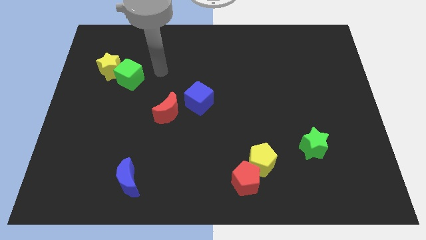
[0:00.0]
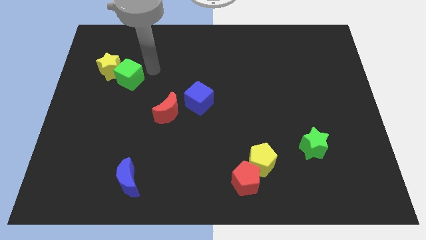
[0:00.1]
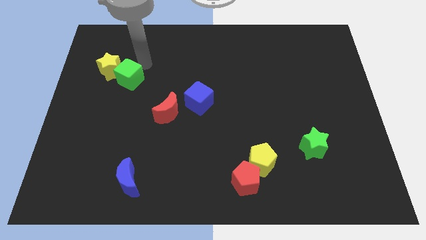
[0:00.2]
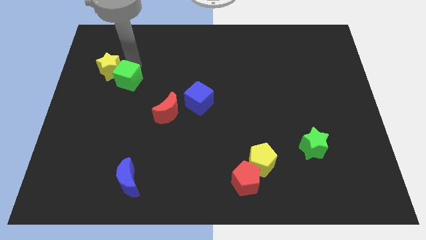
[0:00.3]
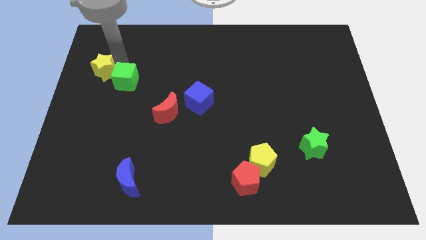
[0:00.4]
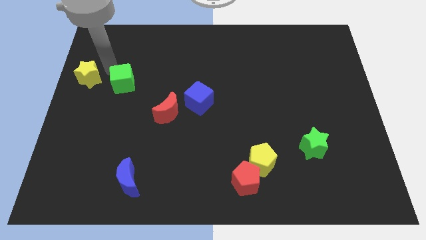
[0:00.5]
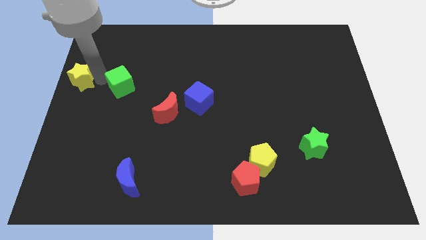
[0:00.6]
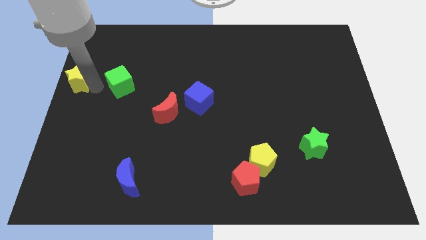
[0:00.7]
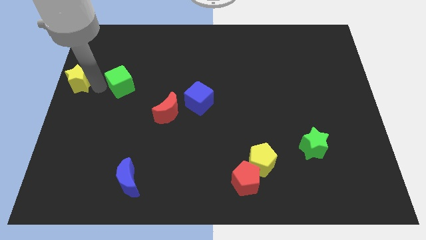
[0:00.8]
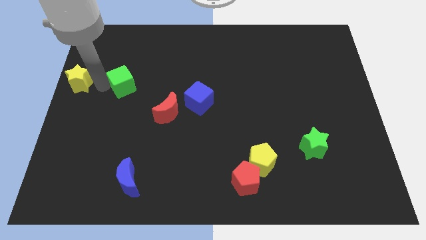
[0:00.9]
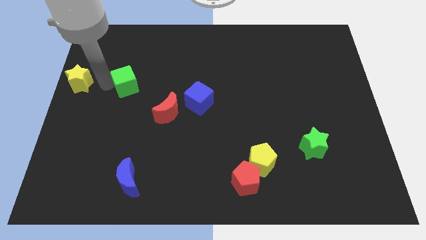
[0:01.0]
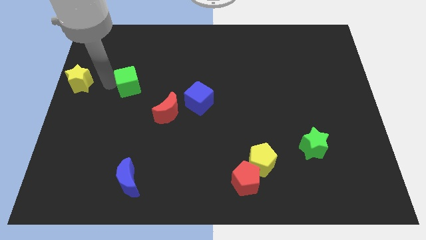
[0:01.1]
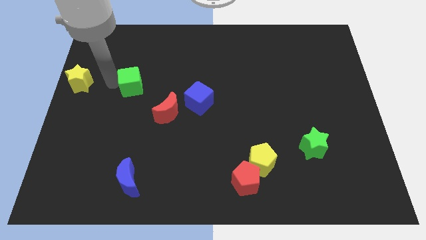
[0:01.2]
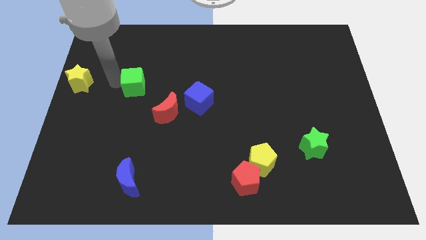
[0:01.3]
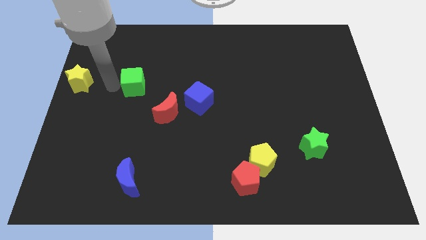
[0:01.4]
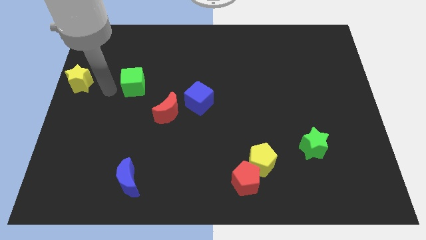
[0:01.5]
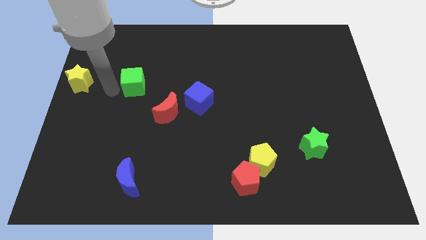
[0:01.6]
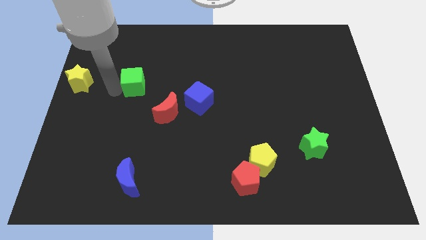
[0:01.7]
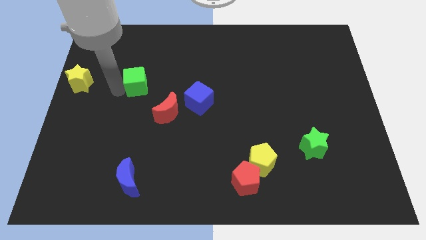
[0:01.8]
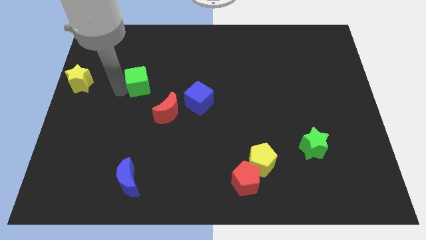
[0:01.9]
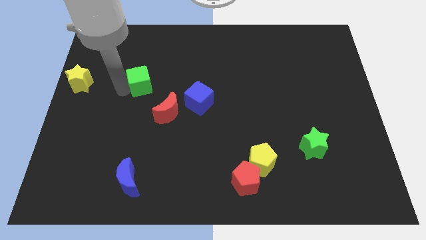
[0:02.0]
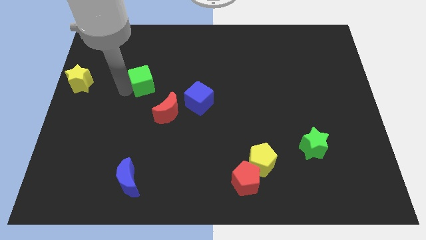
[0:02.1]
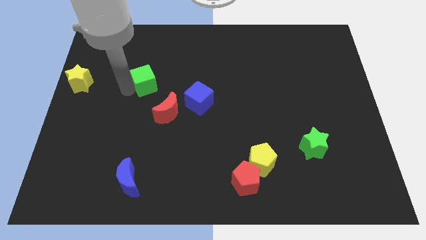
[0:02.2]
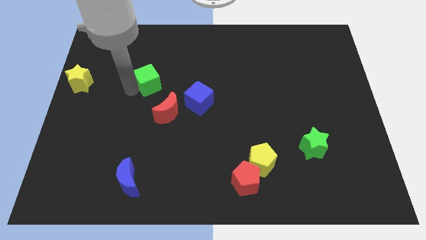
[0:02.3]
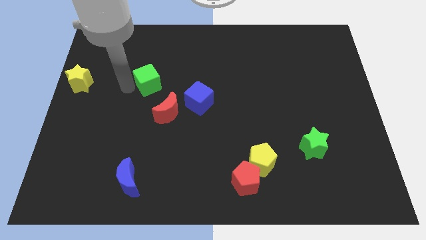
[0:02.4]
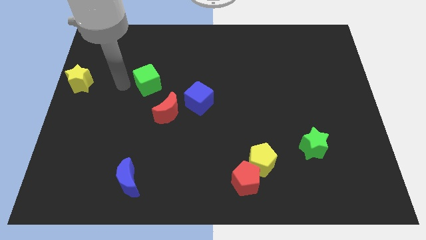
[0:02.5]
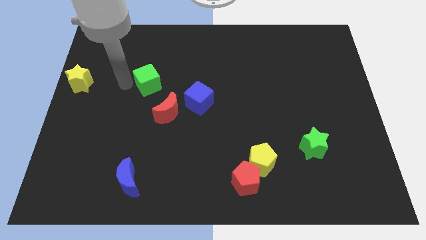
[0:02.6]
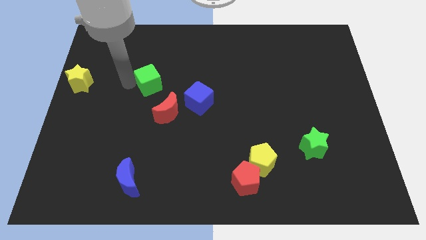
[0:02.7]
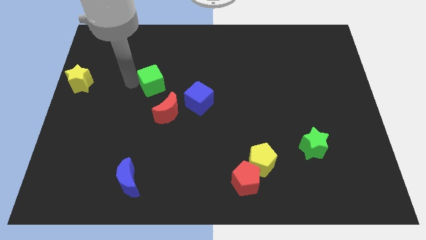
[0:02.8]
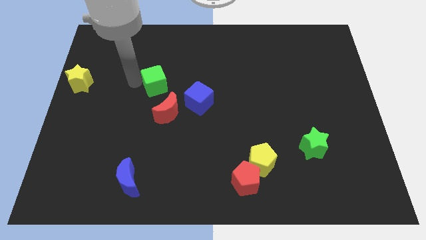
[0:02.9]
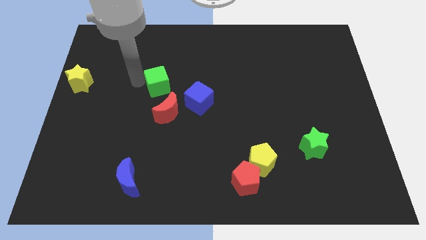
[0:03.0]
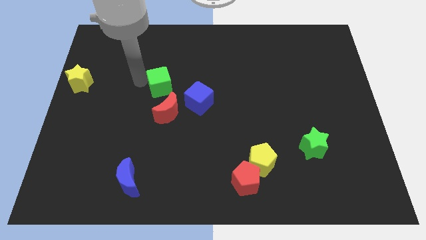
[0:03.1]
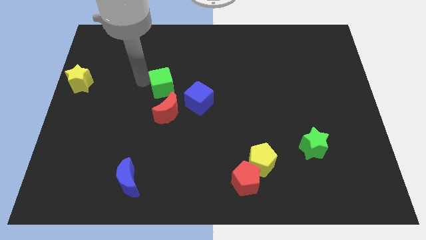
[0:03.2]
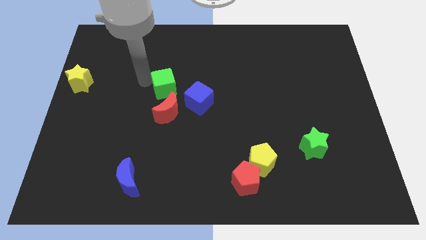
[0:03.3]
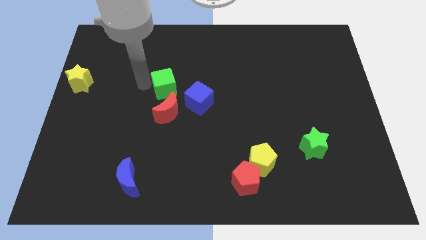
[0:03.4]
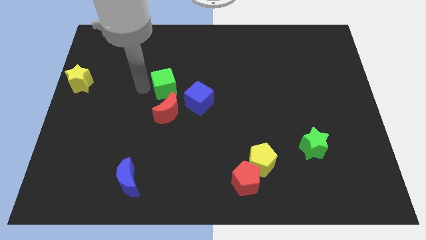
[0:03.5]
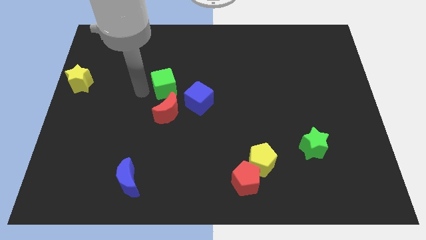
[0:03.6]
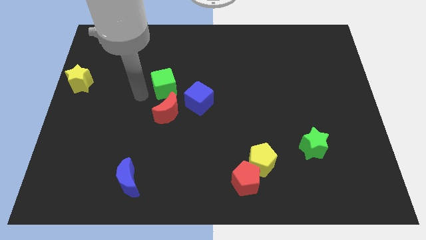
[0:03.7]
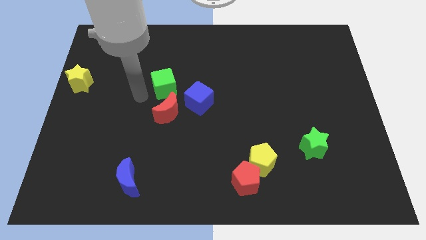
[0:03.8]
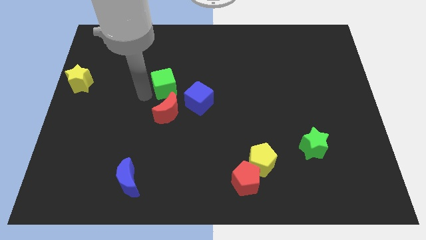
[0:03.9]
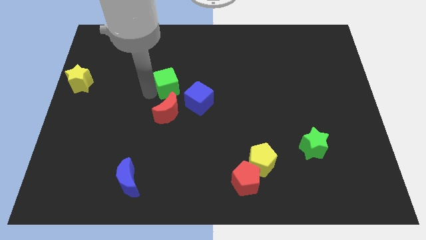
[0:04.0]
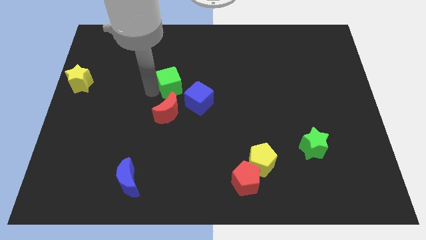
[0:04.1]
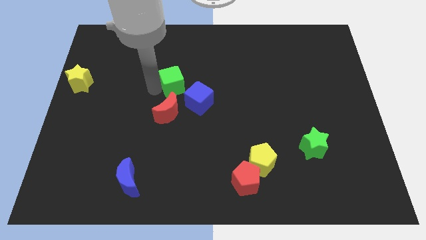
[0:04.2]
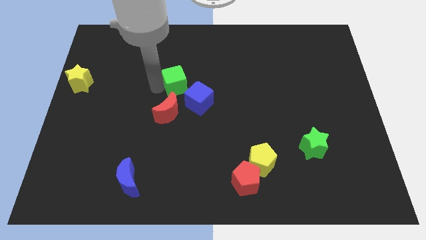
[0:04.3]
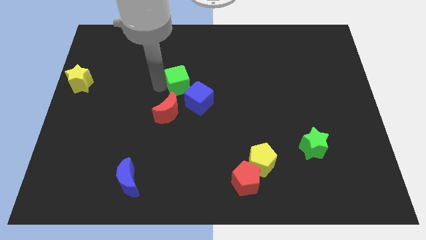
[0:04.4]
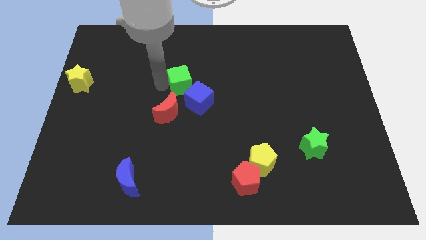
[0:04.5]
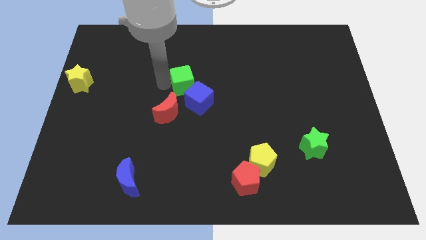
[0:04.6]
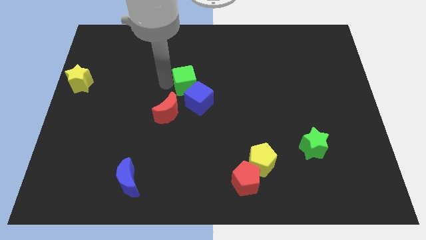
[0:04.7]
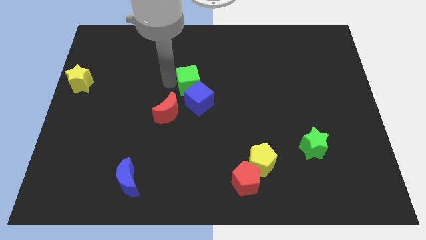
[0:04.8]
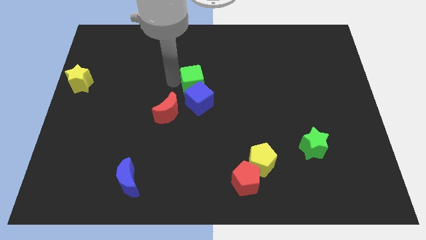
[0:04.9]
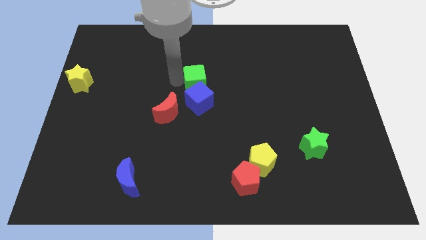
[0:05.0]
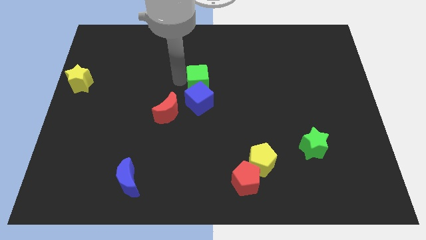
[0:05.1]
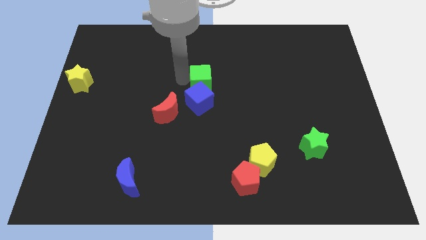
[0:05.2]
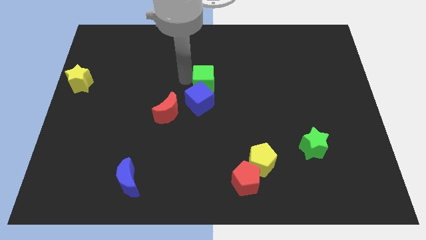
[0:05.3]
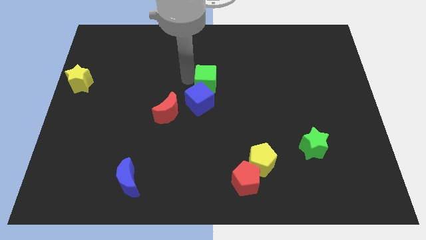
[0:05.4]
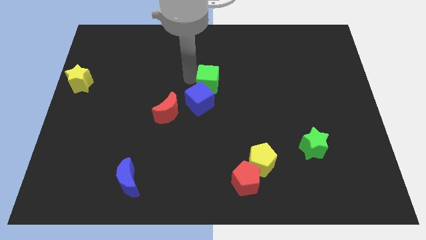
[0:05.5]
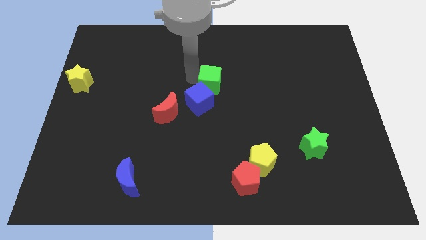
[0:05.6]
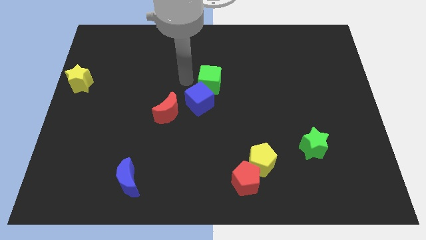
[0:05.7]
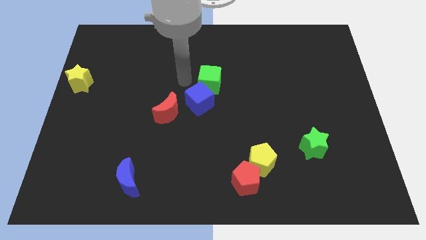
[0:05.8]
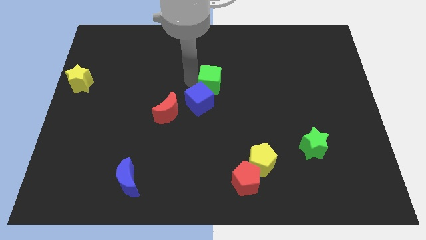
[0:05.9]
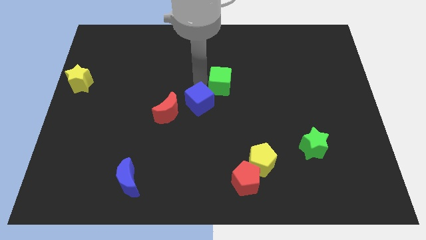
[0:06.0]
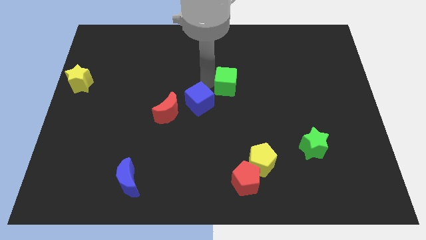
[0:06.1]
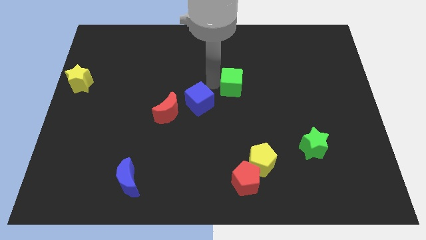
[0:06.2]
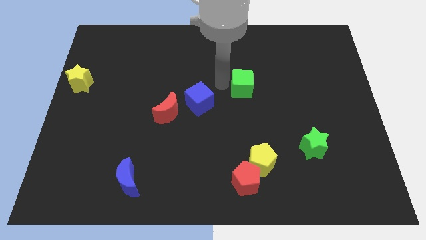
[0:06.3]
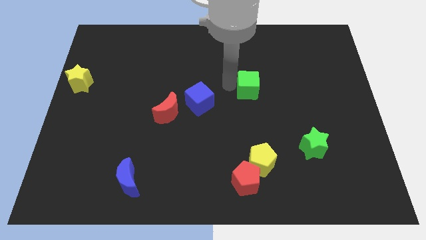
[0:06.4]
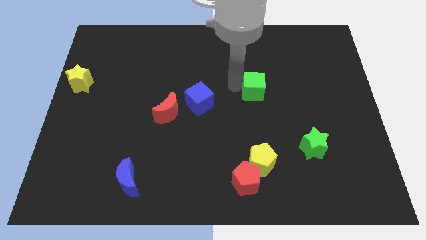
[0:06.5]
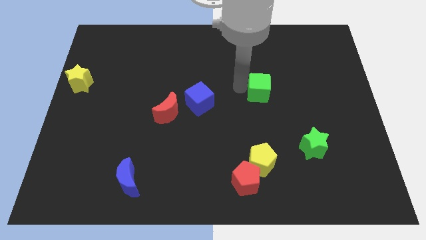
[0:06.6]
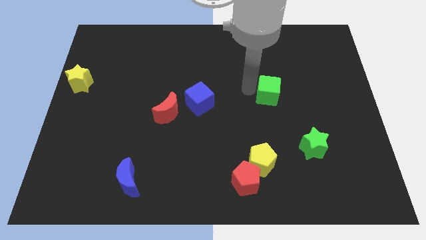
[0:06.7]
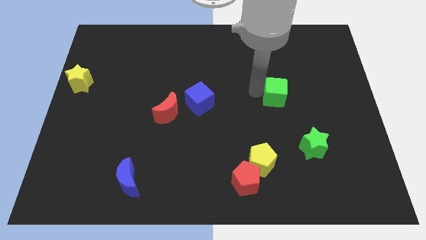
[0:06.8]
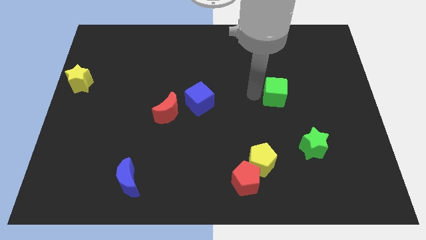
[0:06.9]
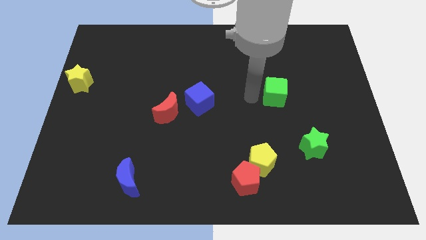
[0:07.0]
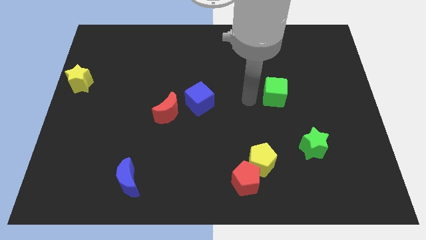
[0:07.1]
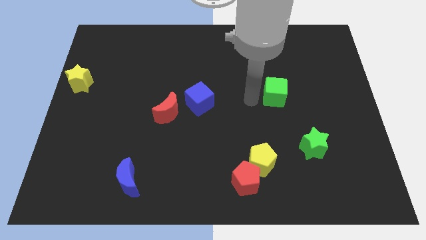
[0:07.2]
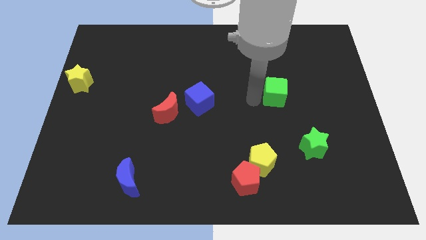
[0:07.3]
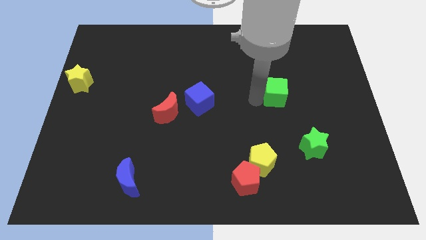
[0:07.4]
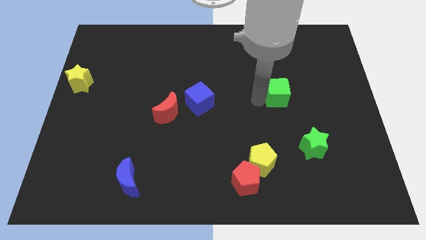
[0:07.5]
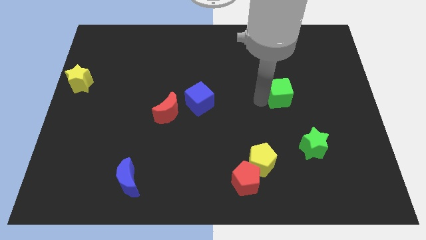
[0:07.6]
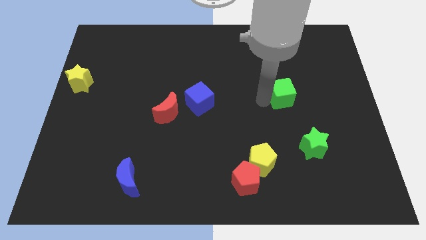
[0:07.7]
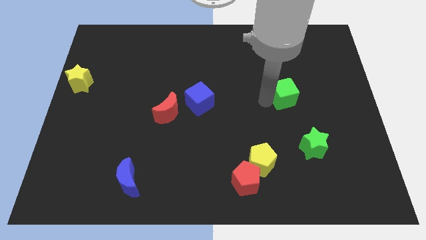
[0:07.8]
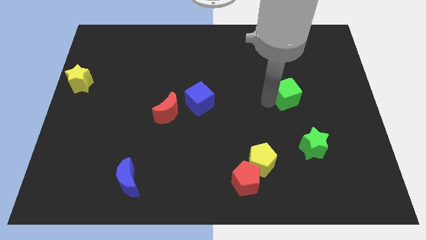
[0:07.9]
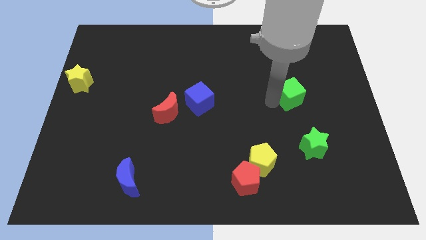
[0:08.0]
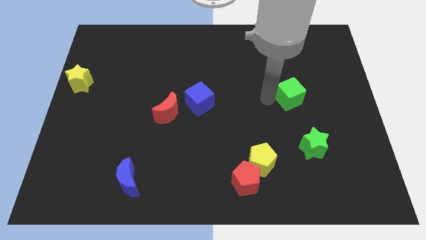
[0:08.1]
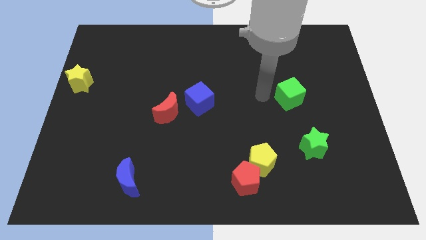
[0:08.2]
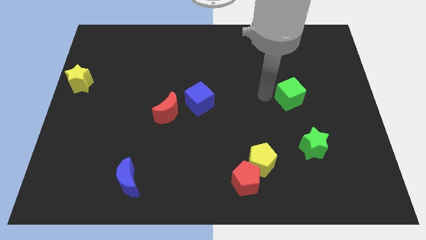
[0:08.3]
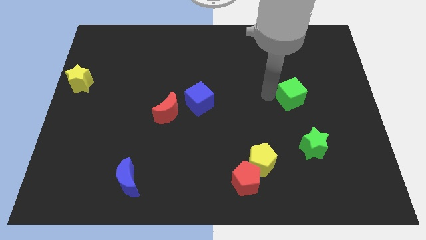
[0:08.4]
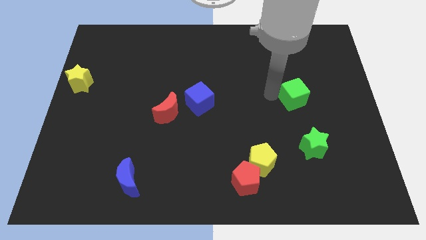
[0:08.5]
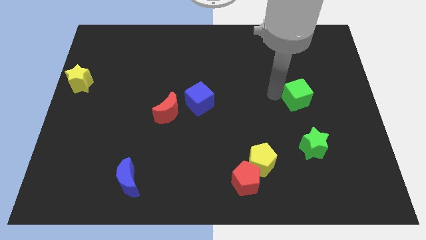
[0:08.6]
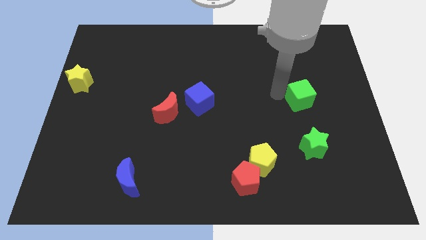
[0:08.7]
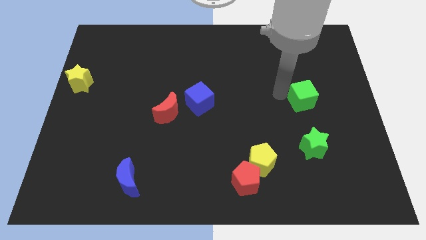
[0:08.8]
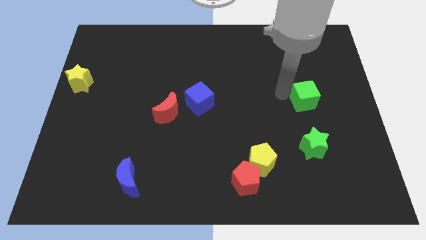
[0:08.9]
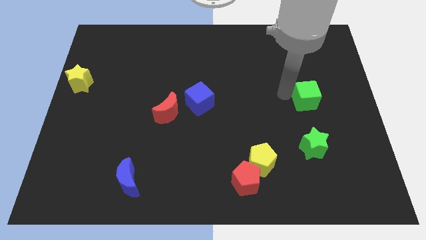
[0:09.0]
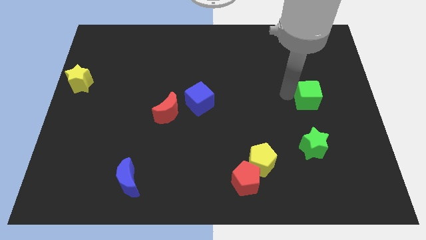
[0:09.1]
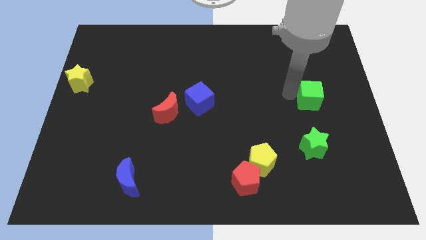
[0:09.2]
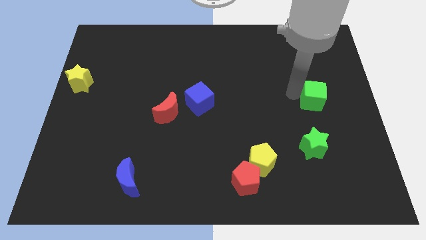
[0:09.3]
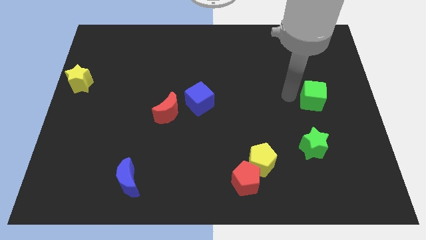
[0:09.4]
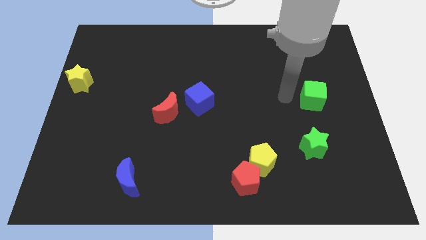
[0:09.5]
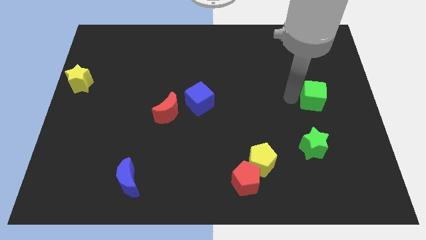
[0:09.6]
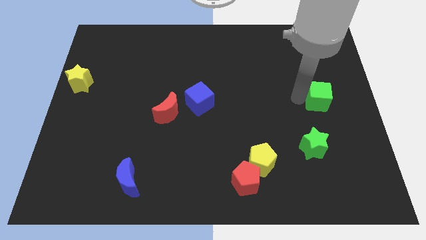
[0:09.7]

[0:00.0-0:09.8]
move the green cube to the center right
